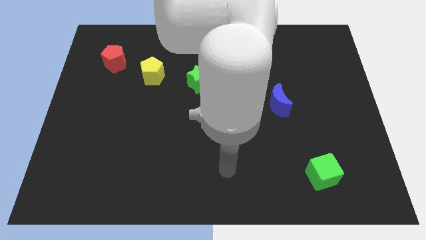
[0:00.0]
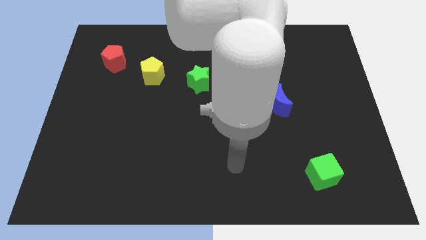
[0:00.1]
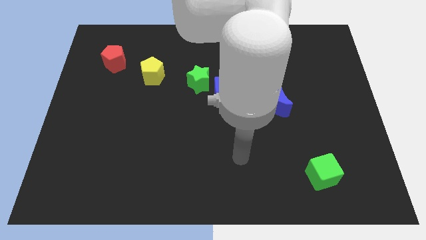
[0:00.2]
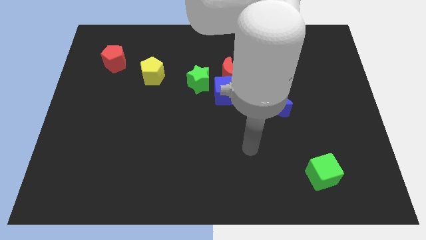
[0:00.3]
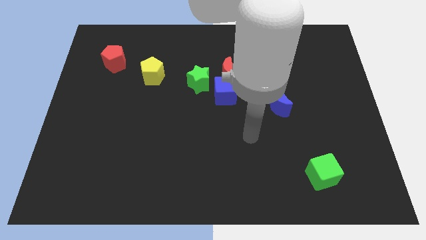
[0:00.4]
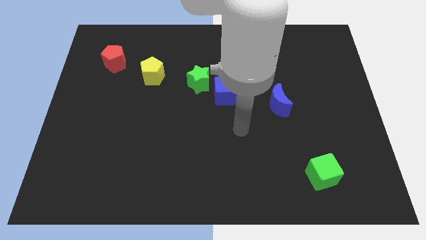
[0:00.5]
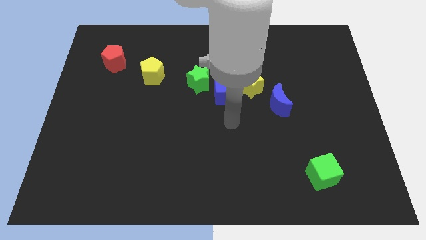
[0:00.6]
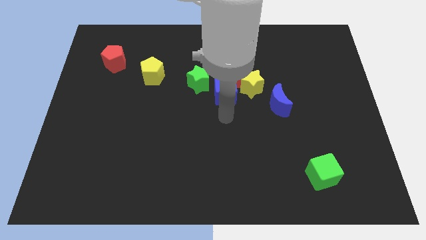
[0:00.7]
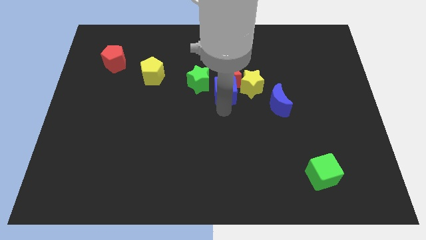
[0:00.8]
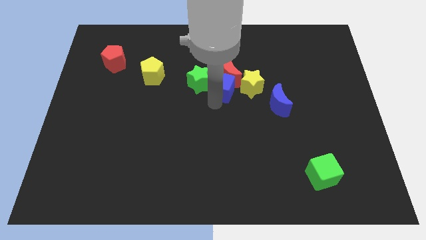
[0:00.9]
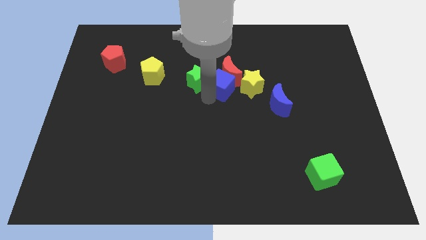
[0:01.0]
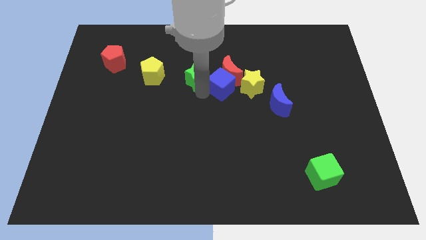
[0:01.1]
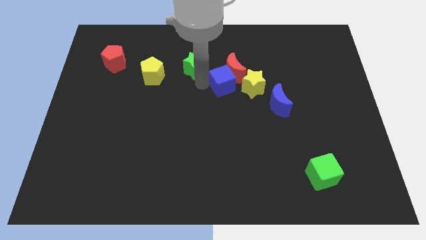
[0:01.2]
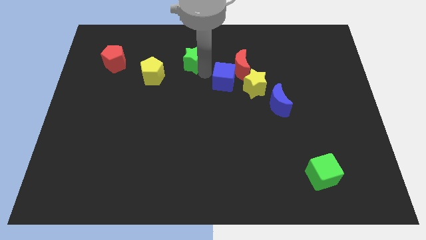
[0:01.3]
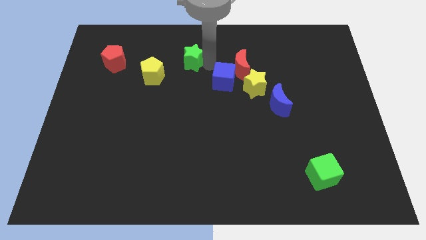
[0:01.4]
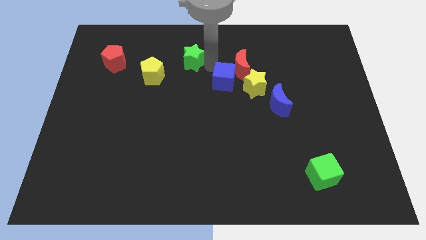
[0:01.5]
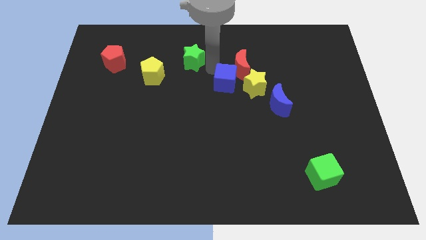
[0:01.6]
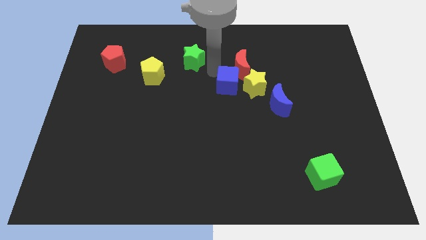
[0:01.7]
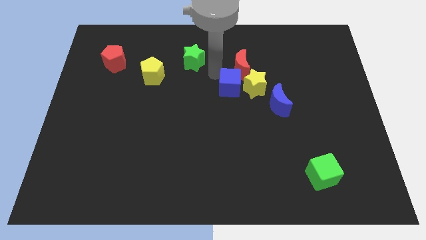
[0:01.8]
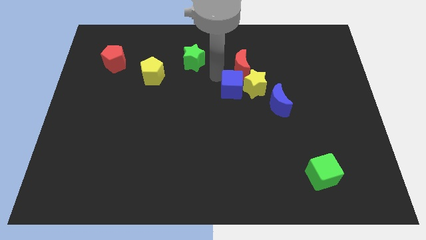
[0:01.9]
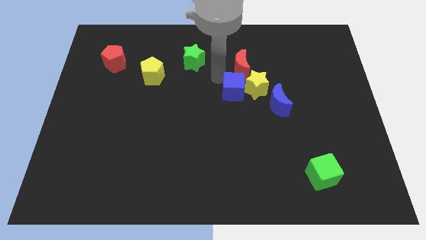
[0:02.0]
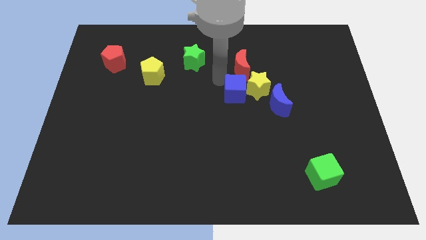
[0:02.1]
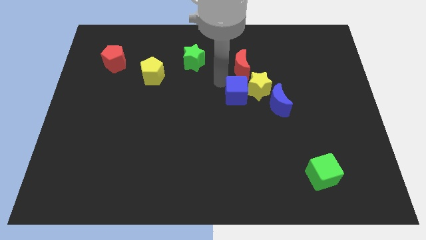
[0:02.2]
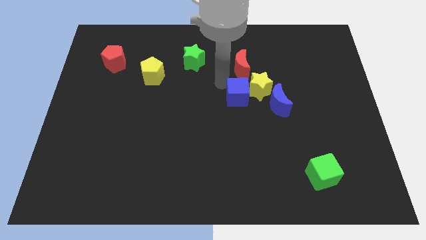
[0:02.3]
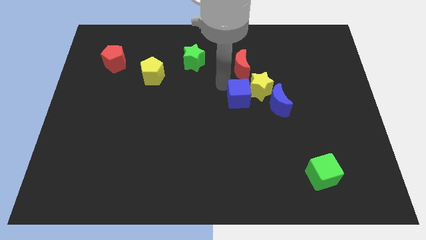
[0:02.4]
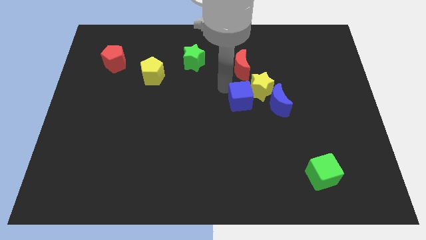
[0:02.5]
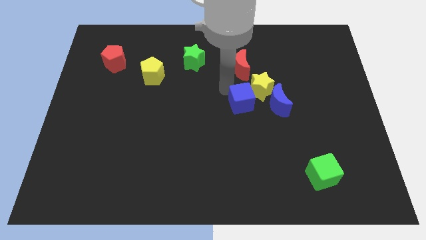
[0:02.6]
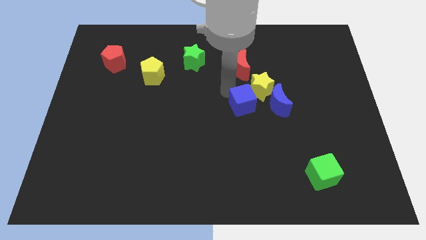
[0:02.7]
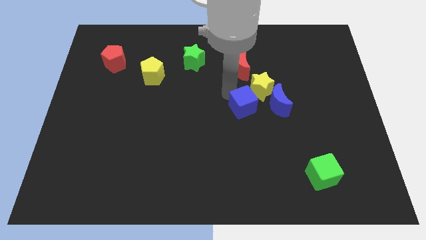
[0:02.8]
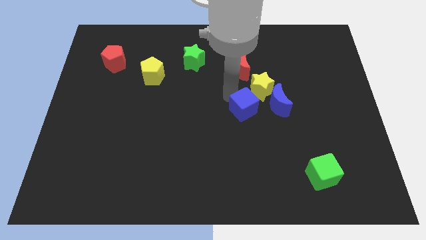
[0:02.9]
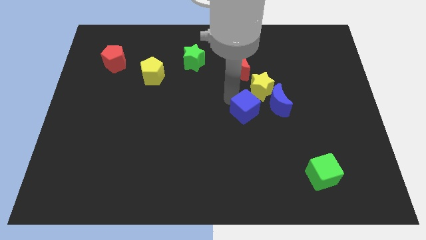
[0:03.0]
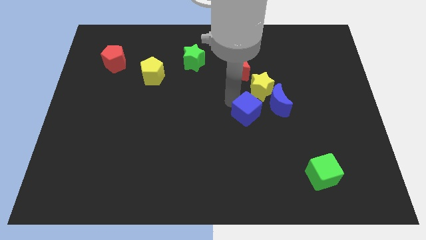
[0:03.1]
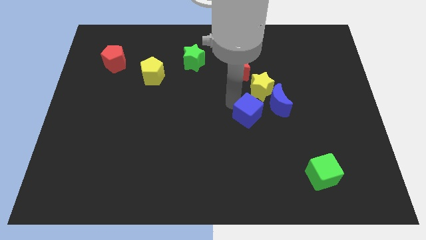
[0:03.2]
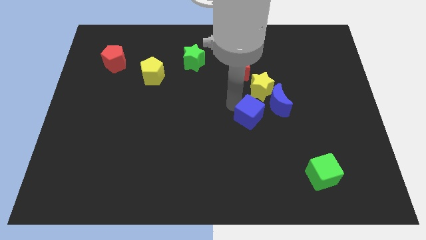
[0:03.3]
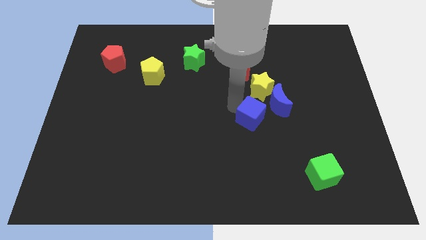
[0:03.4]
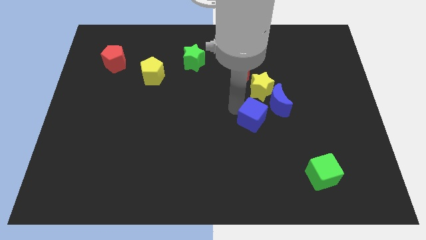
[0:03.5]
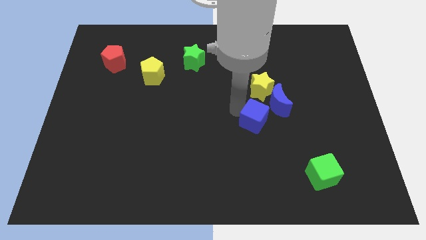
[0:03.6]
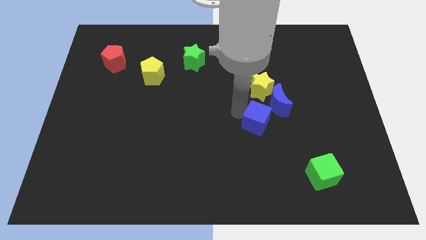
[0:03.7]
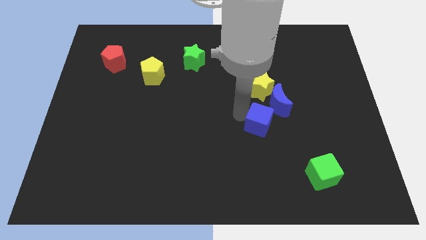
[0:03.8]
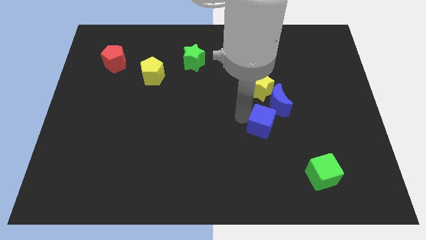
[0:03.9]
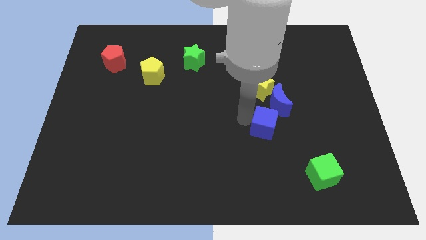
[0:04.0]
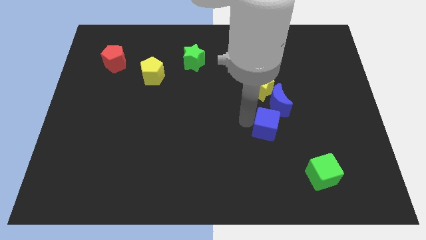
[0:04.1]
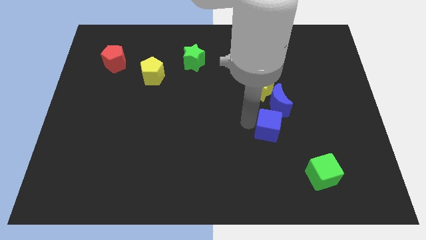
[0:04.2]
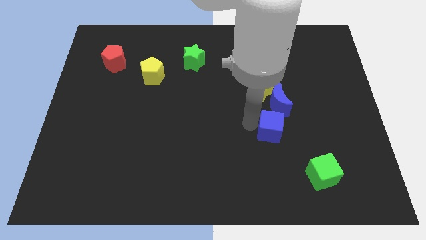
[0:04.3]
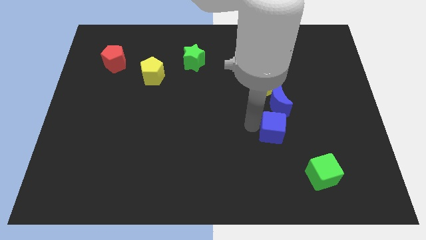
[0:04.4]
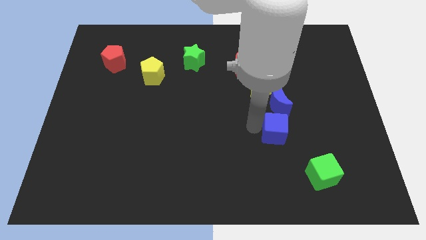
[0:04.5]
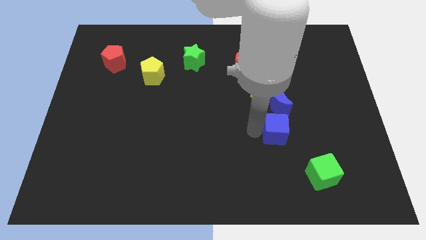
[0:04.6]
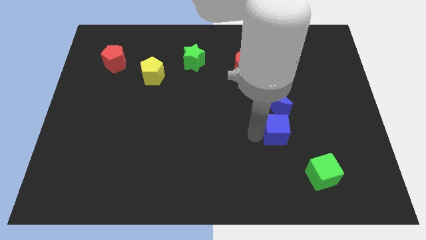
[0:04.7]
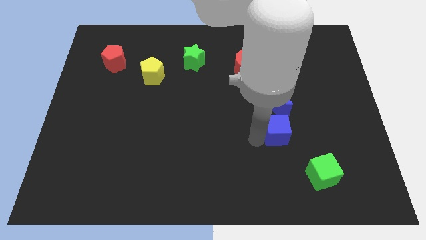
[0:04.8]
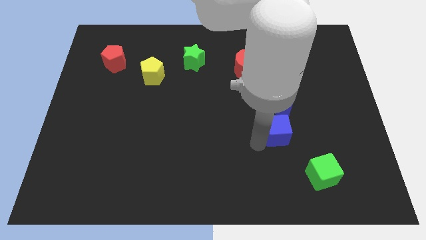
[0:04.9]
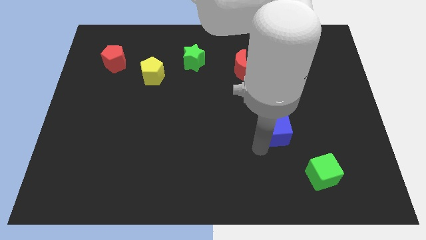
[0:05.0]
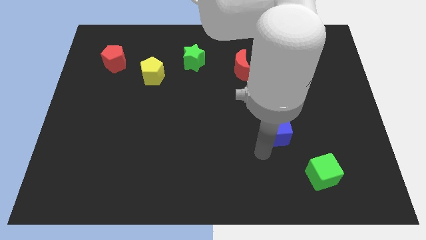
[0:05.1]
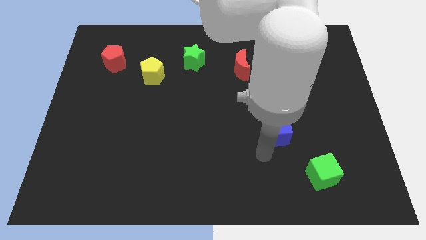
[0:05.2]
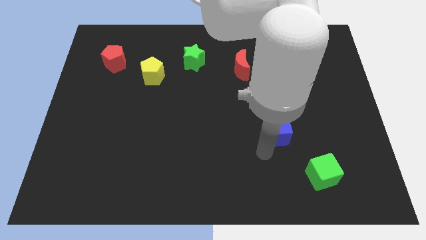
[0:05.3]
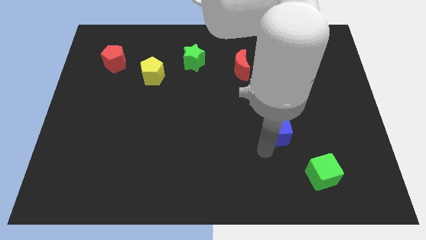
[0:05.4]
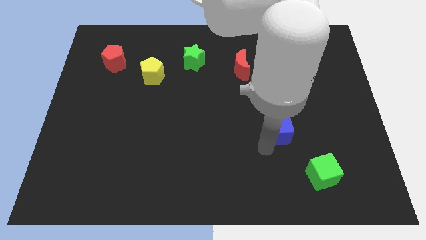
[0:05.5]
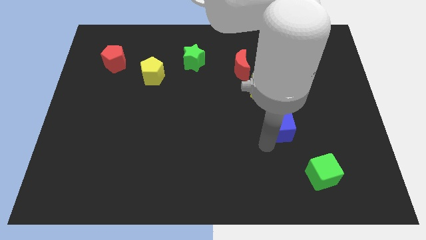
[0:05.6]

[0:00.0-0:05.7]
push the blue cube right somewhat

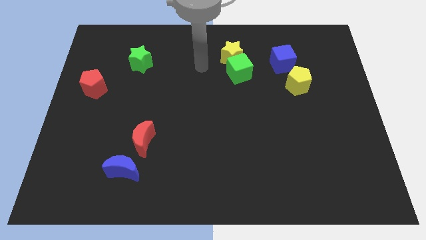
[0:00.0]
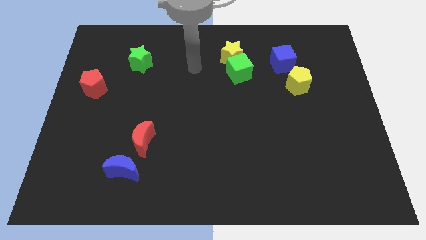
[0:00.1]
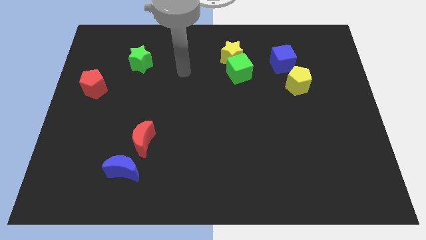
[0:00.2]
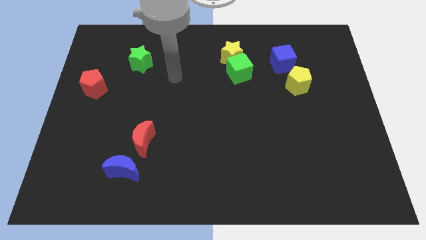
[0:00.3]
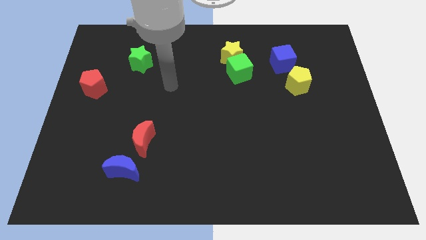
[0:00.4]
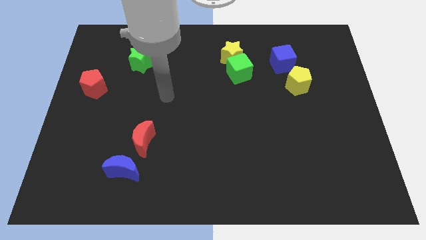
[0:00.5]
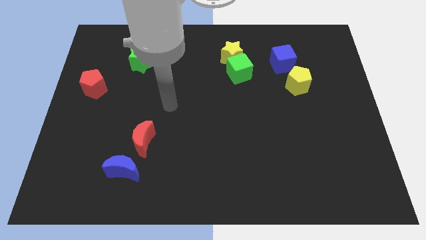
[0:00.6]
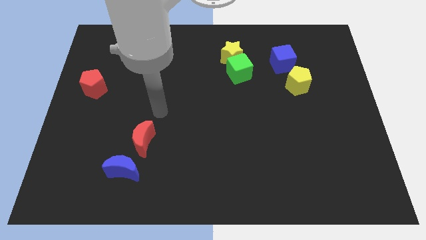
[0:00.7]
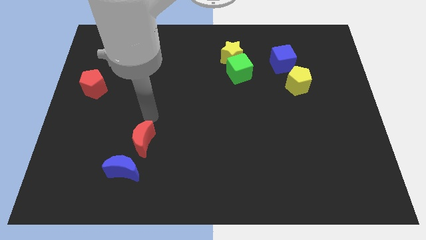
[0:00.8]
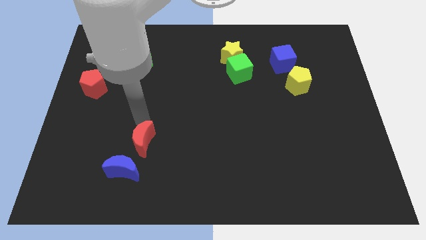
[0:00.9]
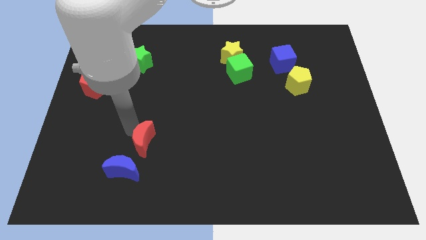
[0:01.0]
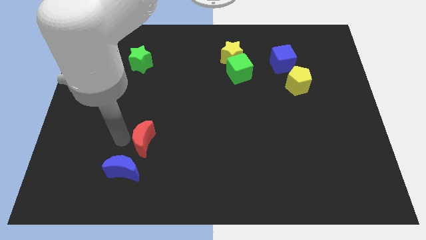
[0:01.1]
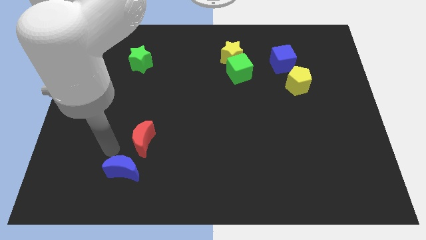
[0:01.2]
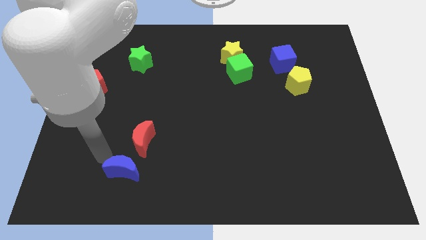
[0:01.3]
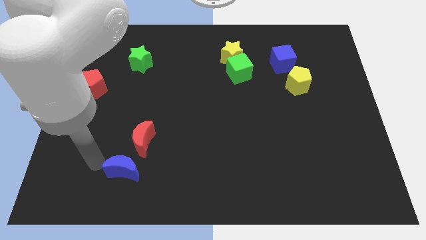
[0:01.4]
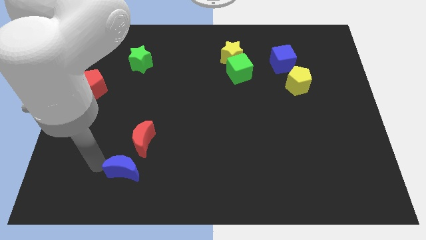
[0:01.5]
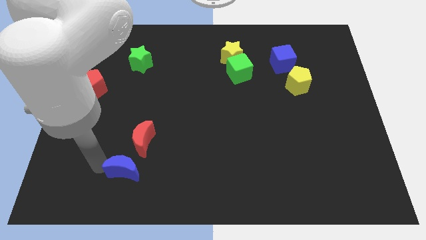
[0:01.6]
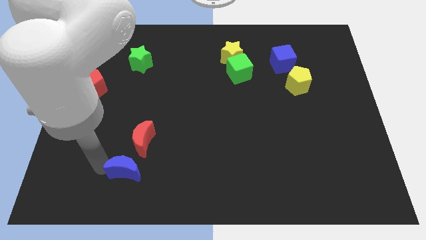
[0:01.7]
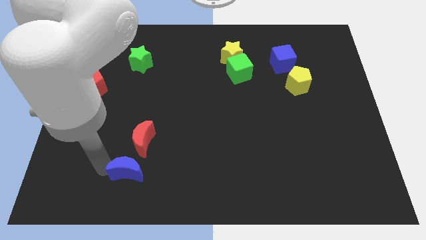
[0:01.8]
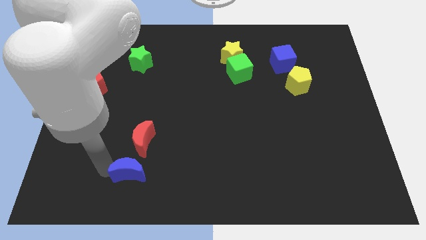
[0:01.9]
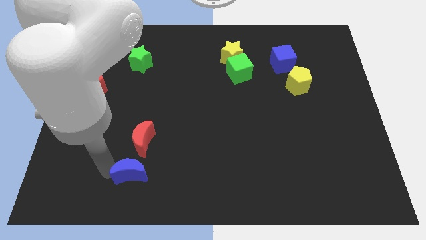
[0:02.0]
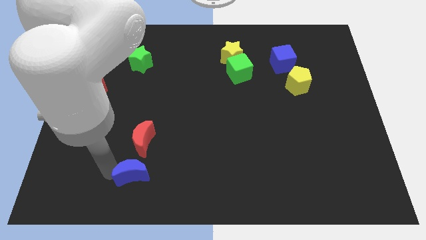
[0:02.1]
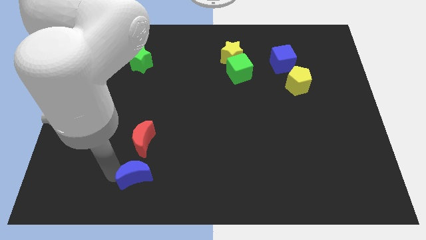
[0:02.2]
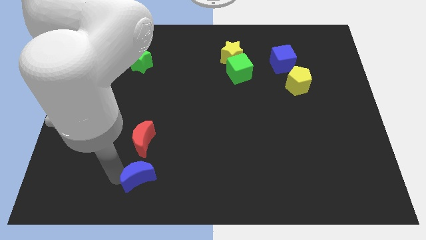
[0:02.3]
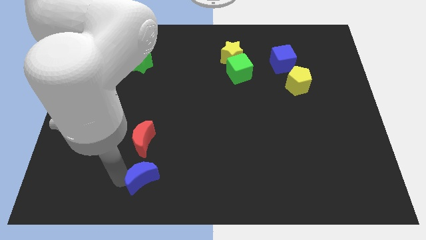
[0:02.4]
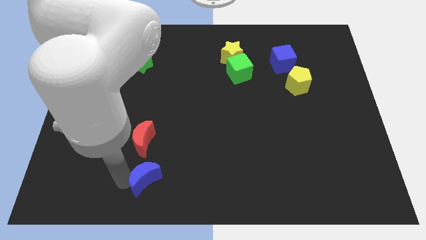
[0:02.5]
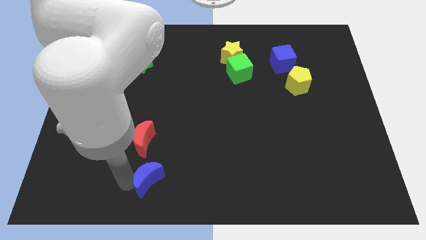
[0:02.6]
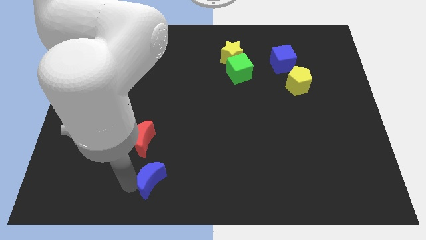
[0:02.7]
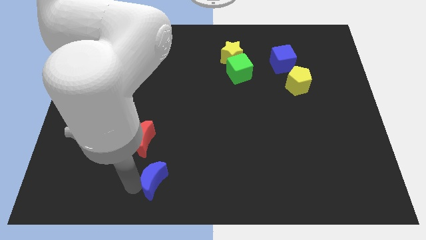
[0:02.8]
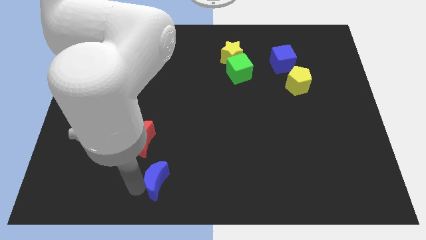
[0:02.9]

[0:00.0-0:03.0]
slide the blue moon right a bit
